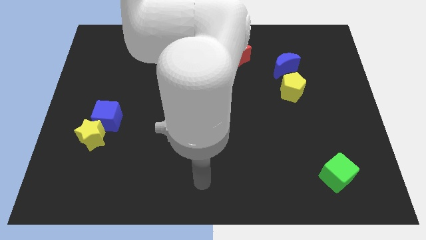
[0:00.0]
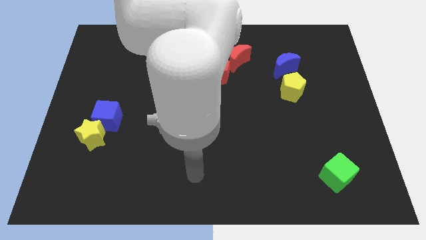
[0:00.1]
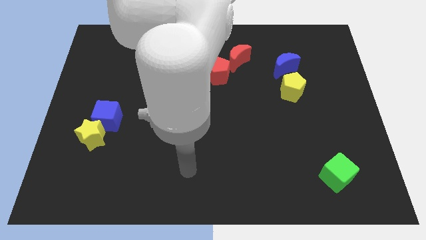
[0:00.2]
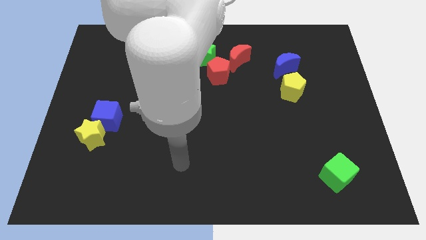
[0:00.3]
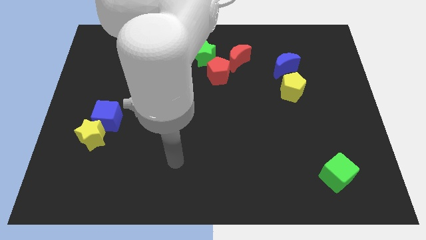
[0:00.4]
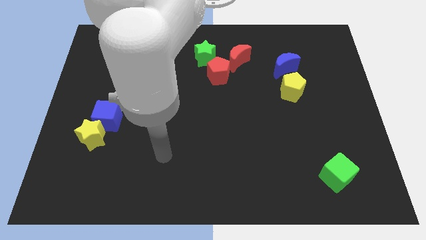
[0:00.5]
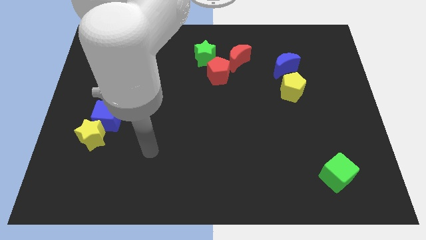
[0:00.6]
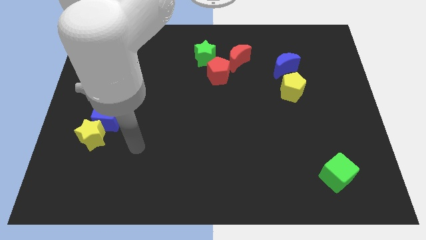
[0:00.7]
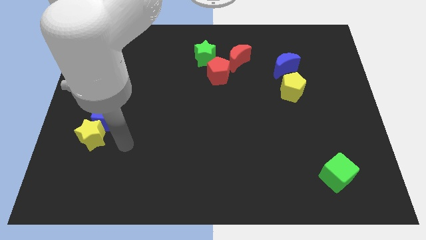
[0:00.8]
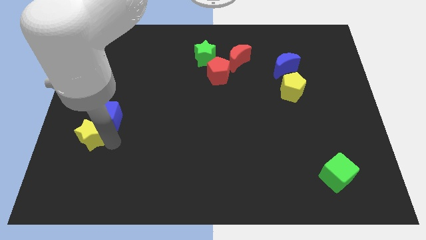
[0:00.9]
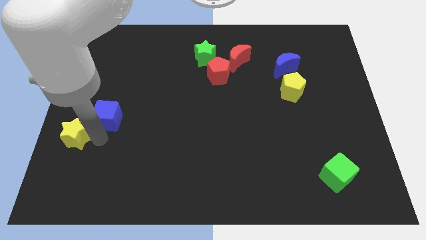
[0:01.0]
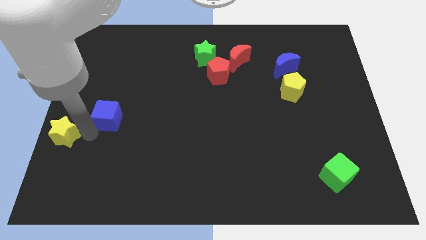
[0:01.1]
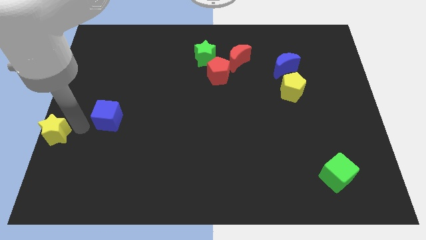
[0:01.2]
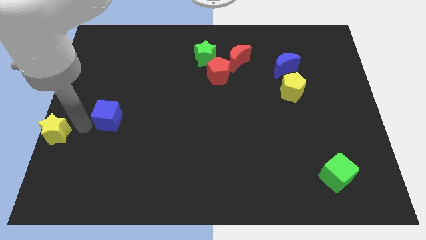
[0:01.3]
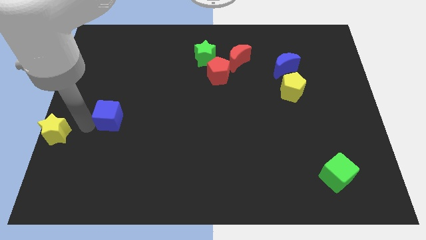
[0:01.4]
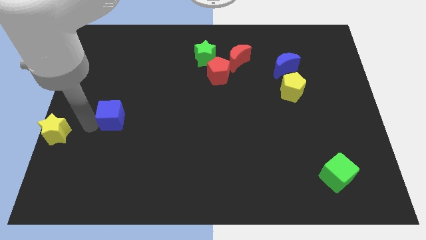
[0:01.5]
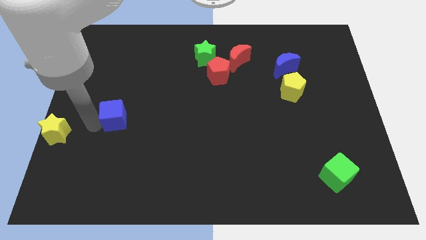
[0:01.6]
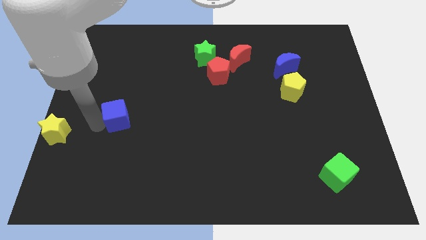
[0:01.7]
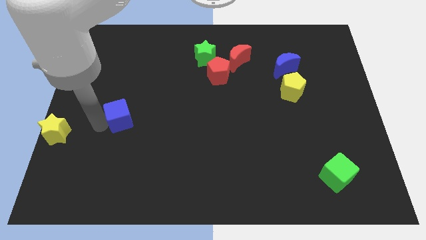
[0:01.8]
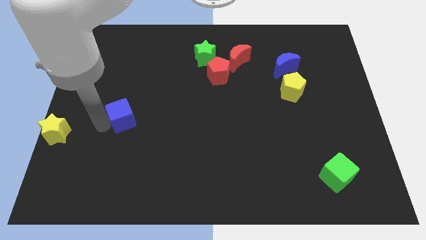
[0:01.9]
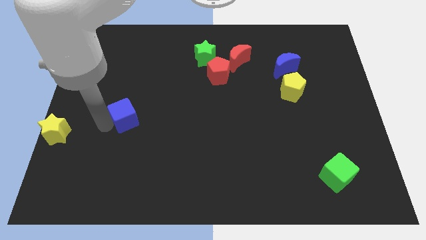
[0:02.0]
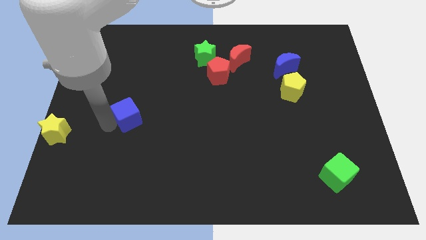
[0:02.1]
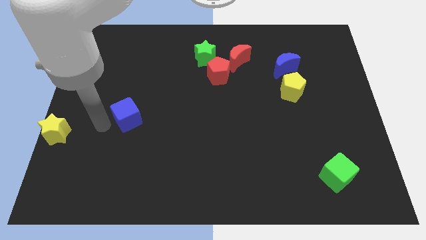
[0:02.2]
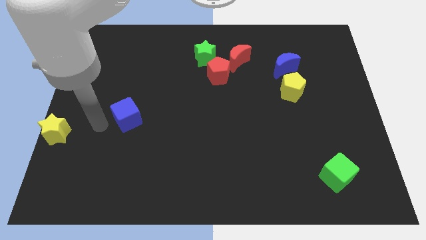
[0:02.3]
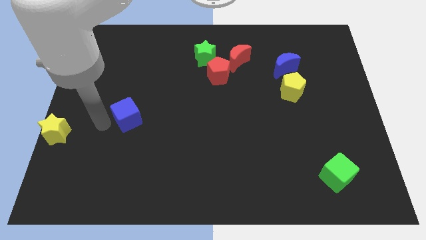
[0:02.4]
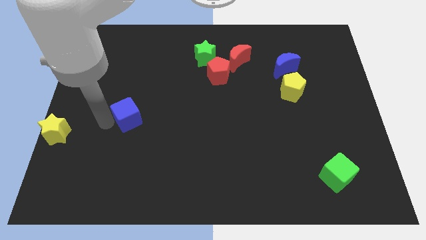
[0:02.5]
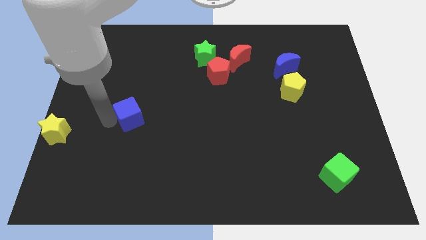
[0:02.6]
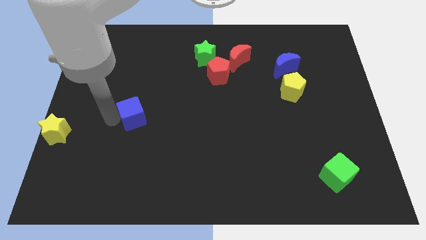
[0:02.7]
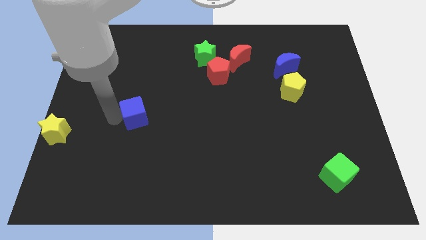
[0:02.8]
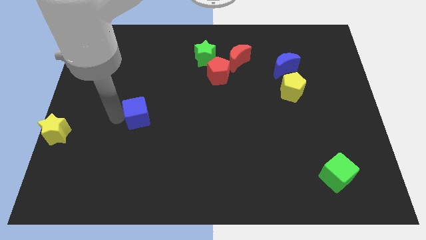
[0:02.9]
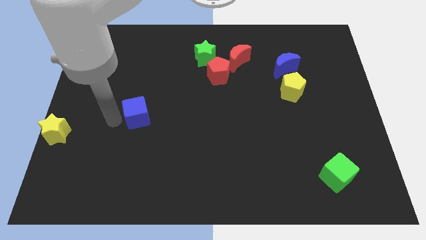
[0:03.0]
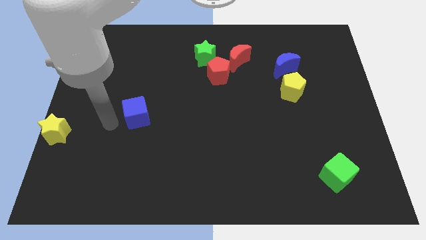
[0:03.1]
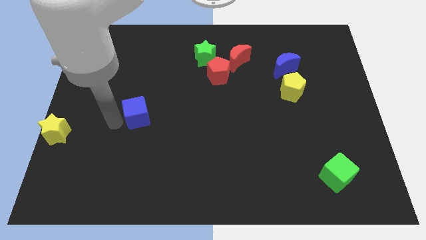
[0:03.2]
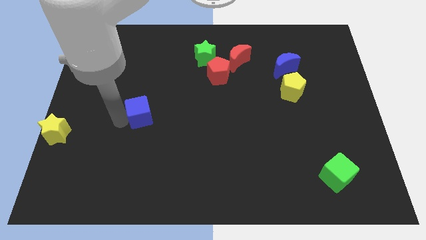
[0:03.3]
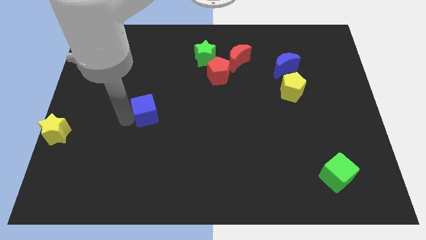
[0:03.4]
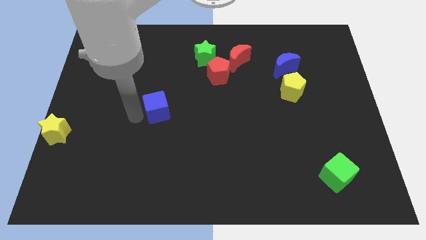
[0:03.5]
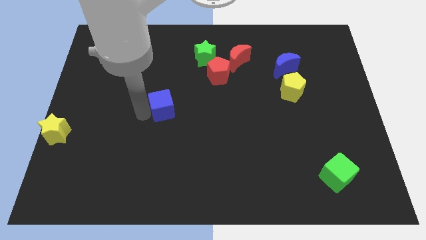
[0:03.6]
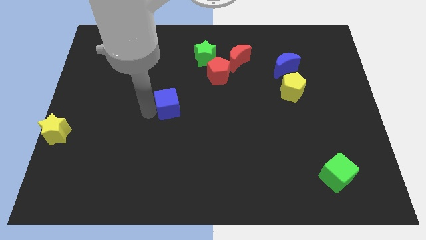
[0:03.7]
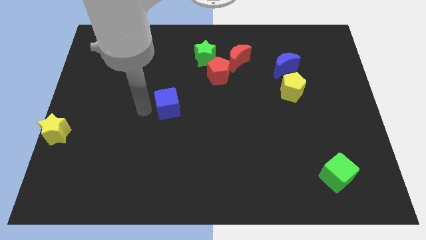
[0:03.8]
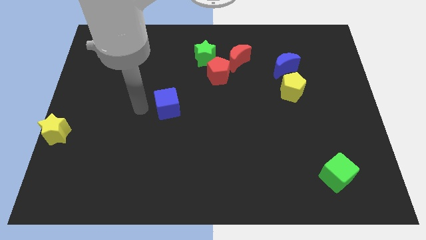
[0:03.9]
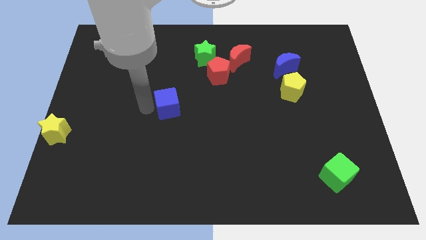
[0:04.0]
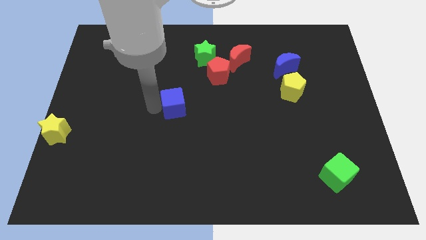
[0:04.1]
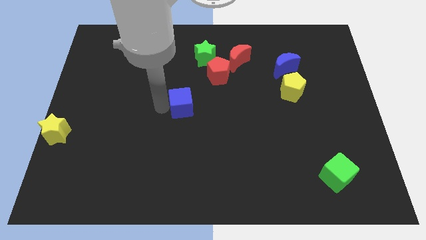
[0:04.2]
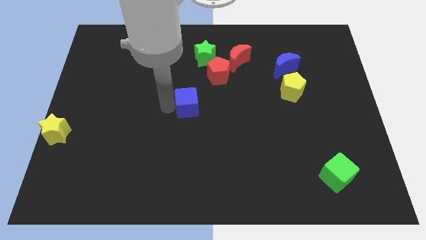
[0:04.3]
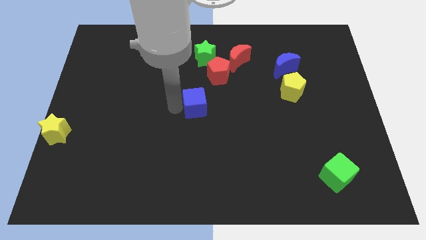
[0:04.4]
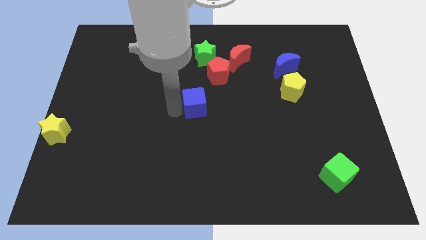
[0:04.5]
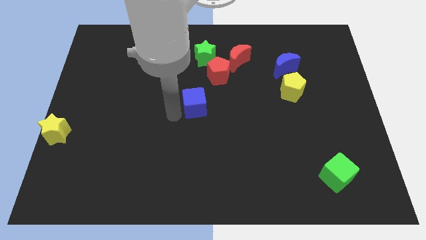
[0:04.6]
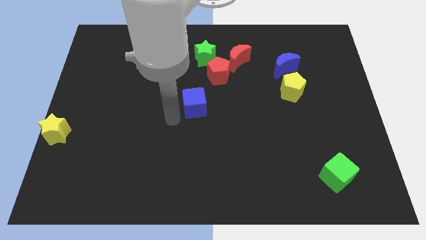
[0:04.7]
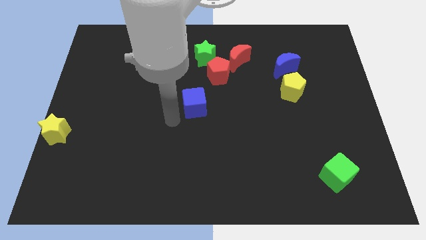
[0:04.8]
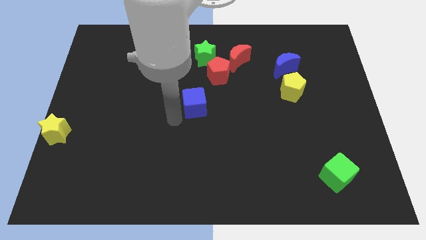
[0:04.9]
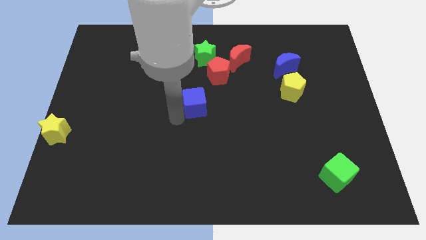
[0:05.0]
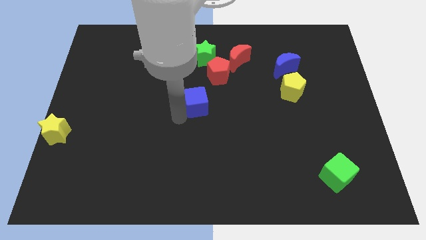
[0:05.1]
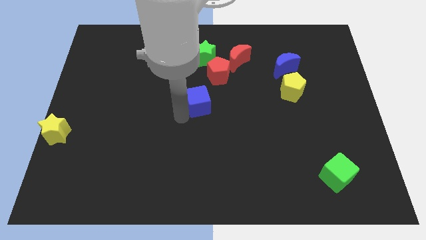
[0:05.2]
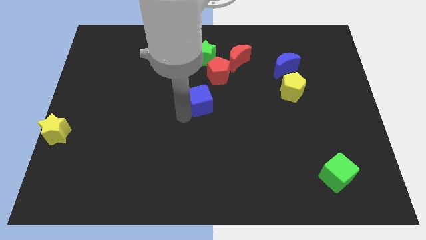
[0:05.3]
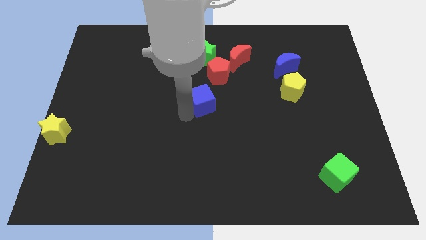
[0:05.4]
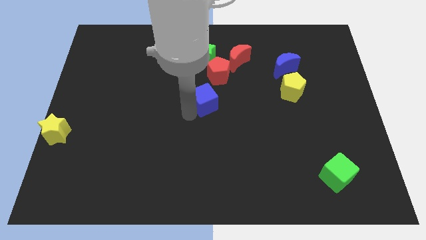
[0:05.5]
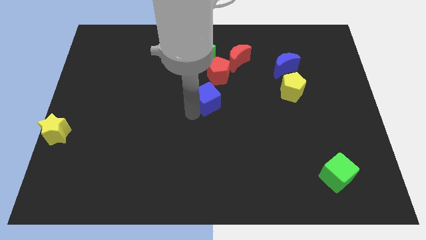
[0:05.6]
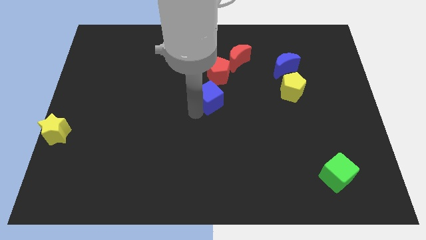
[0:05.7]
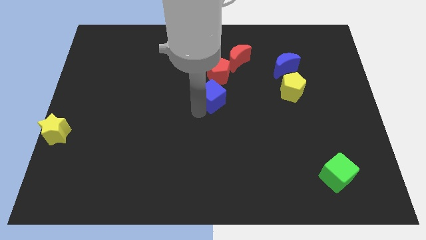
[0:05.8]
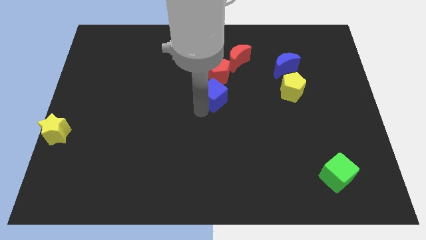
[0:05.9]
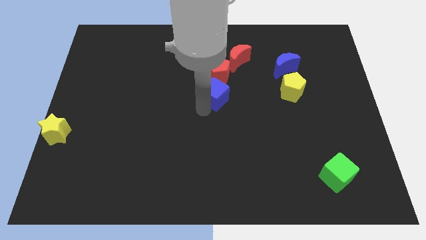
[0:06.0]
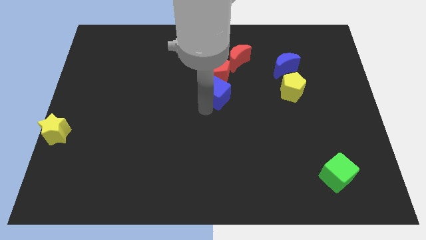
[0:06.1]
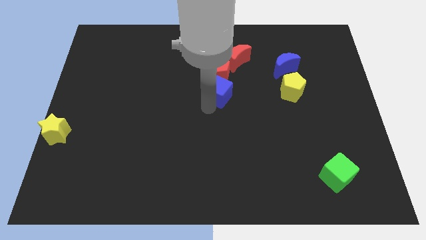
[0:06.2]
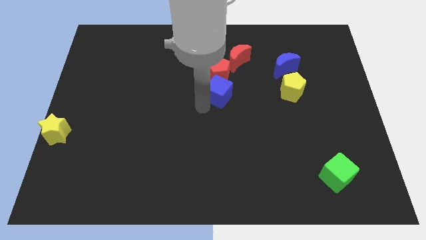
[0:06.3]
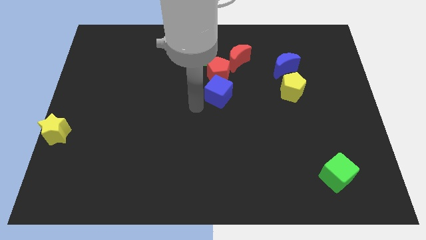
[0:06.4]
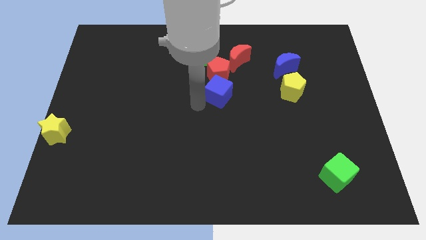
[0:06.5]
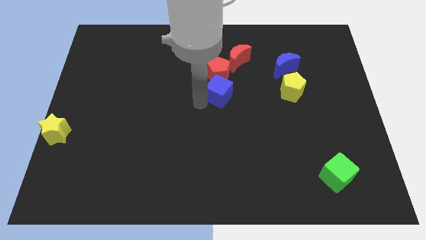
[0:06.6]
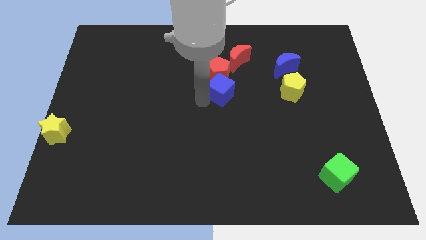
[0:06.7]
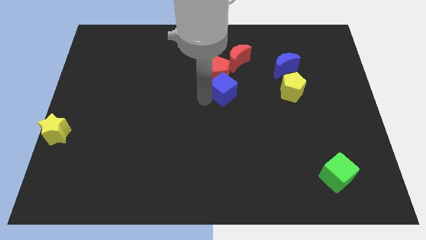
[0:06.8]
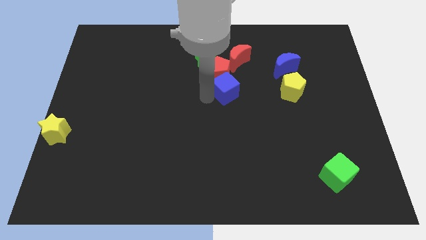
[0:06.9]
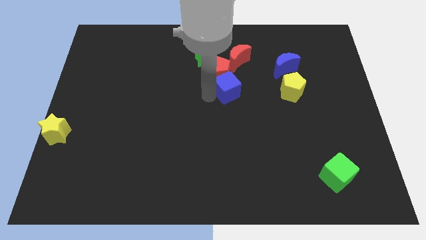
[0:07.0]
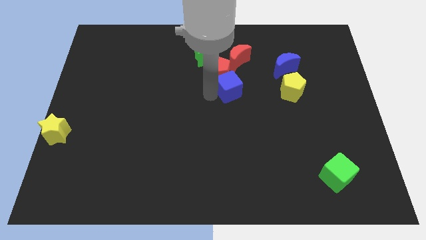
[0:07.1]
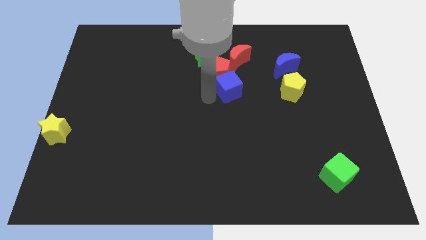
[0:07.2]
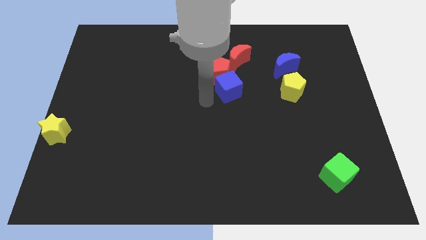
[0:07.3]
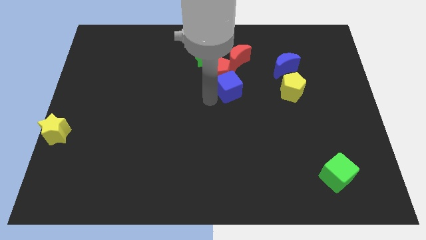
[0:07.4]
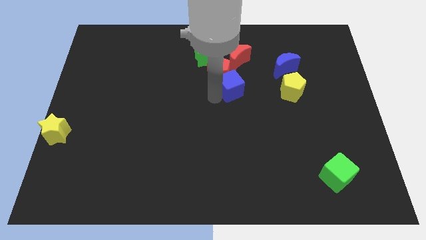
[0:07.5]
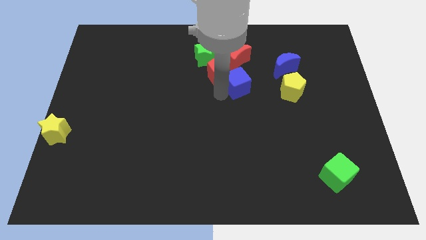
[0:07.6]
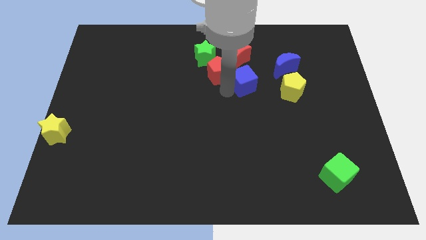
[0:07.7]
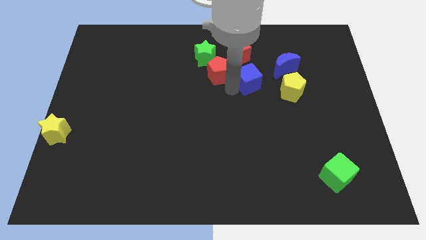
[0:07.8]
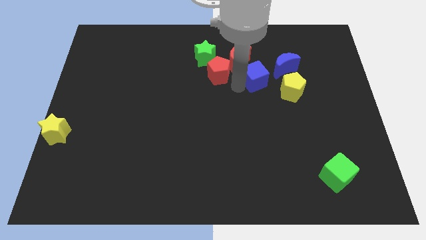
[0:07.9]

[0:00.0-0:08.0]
slide the blue cube to the top left of the yellow pentagon
